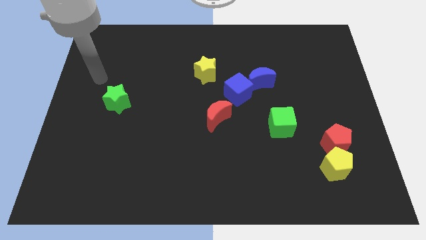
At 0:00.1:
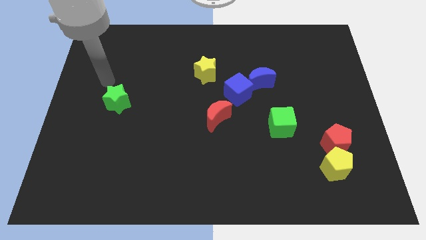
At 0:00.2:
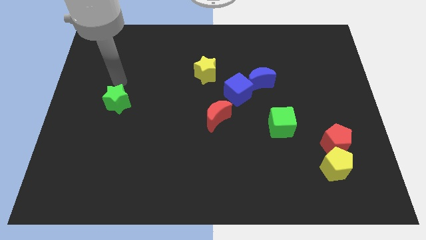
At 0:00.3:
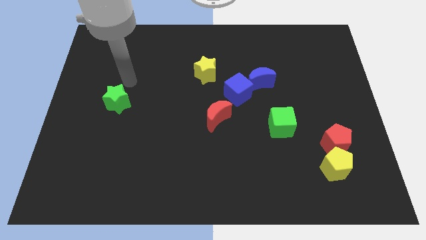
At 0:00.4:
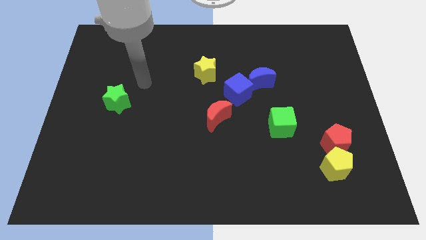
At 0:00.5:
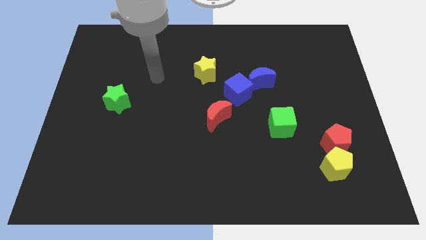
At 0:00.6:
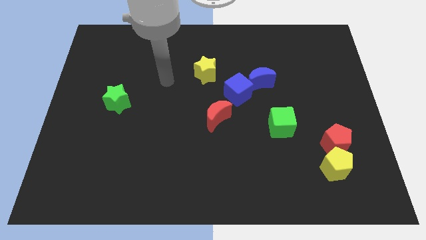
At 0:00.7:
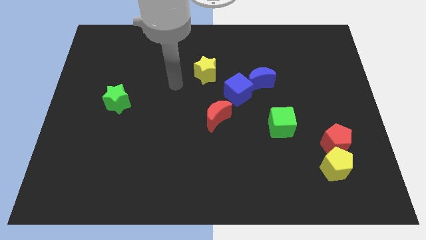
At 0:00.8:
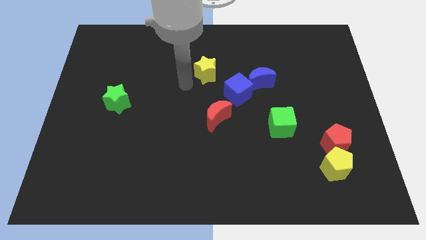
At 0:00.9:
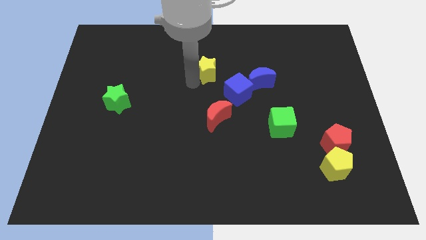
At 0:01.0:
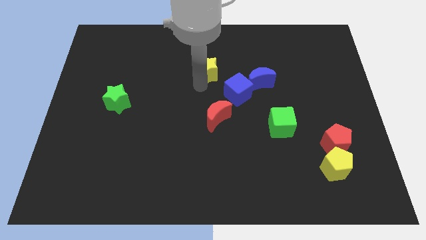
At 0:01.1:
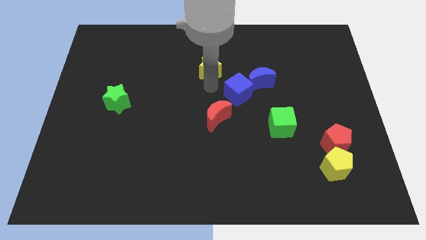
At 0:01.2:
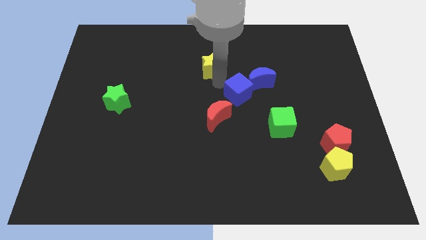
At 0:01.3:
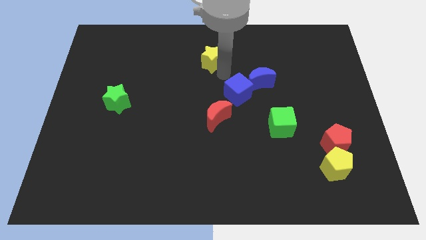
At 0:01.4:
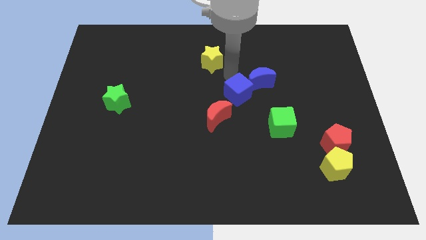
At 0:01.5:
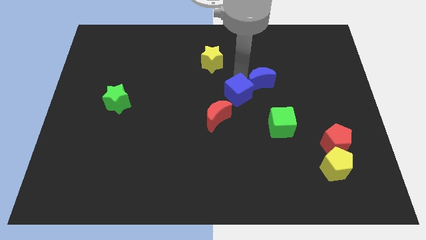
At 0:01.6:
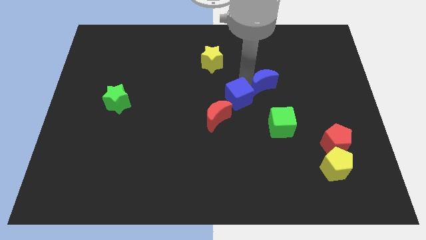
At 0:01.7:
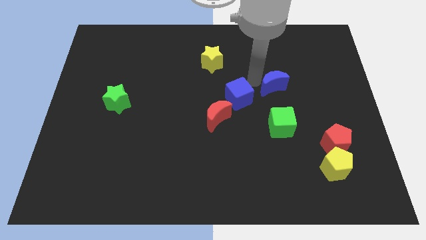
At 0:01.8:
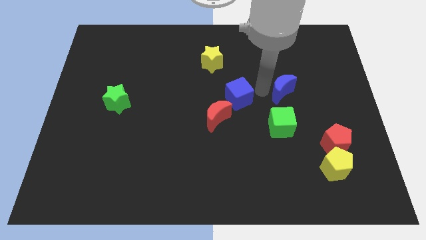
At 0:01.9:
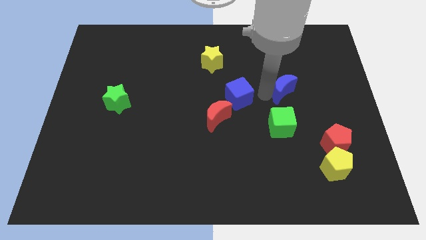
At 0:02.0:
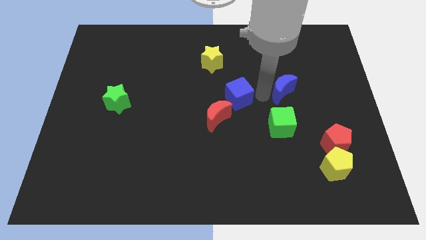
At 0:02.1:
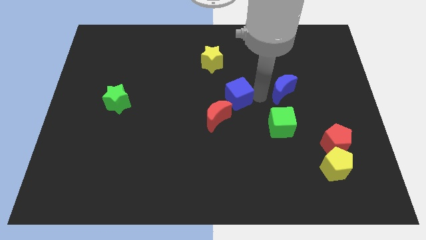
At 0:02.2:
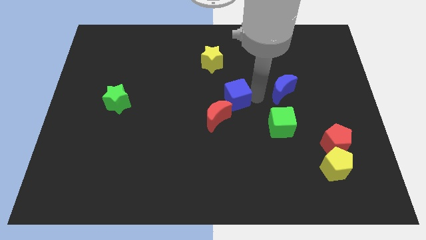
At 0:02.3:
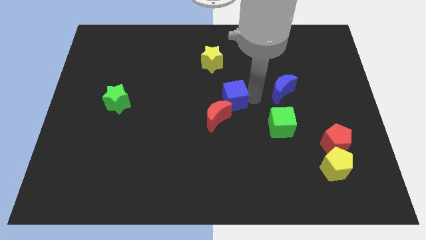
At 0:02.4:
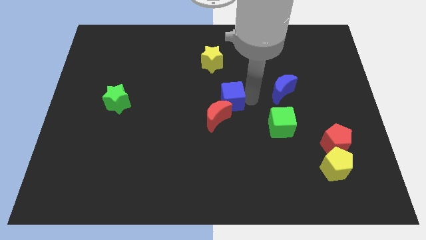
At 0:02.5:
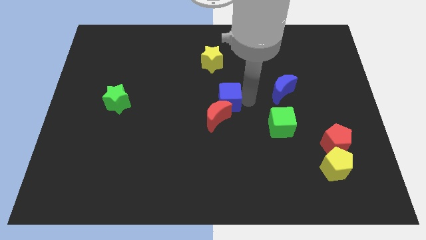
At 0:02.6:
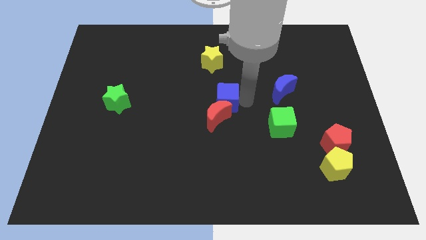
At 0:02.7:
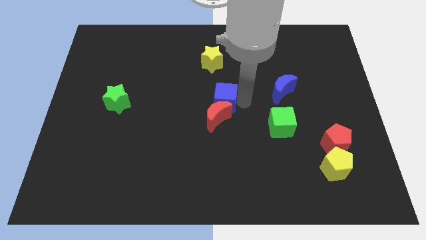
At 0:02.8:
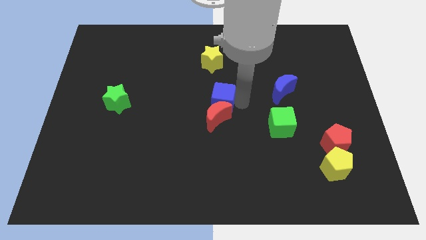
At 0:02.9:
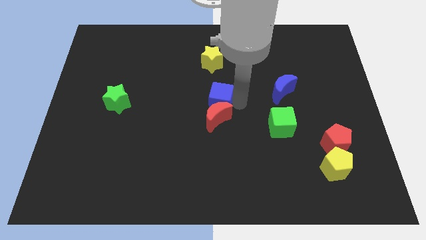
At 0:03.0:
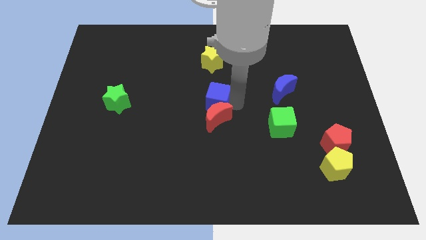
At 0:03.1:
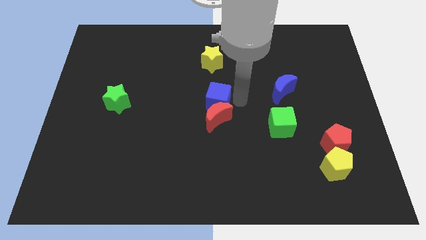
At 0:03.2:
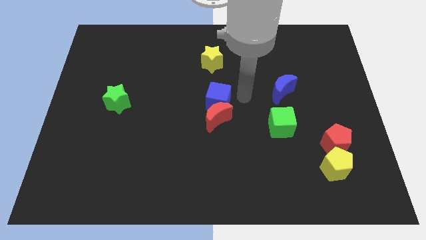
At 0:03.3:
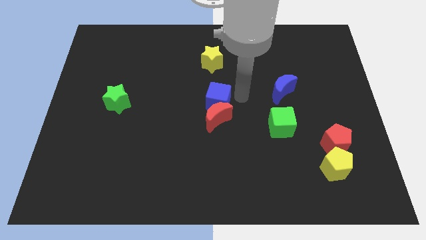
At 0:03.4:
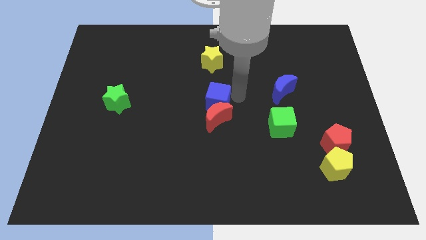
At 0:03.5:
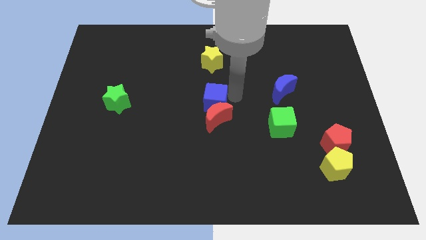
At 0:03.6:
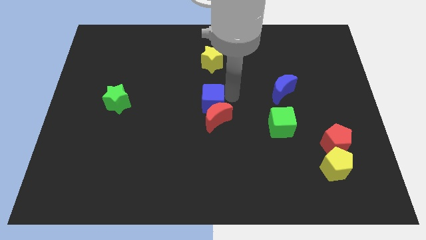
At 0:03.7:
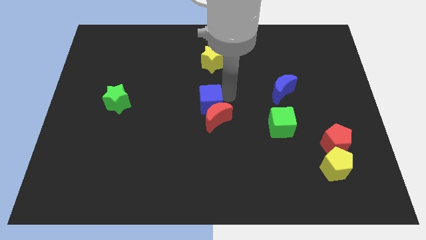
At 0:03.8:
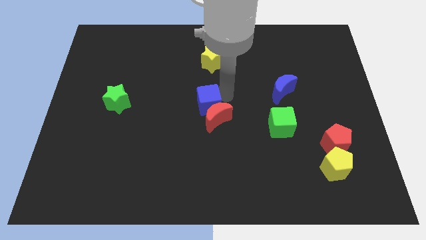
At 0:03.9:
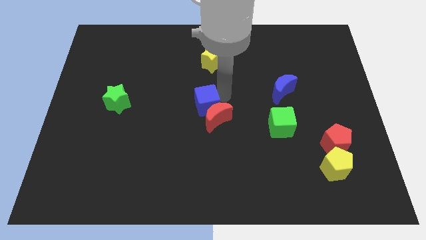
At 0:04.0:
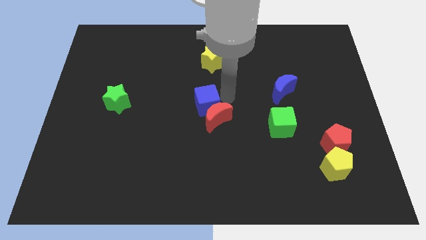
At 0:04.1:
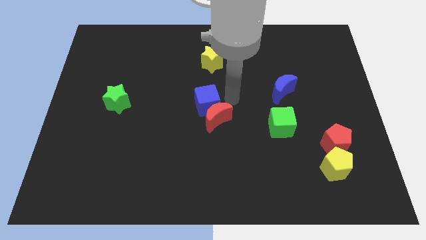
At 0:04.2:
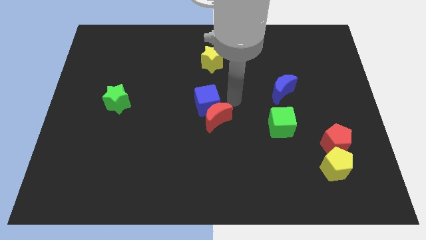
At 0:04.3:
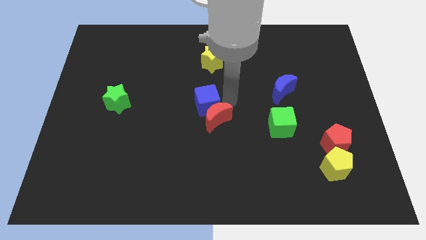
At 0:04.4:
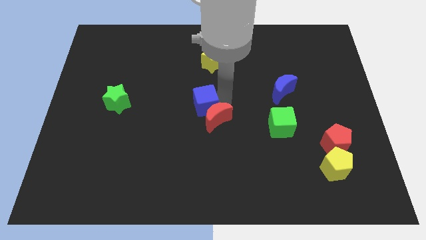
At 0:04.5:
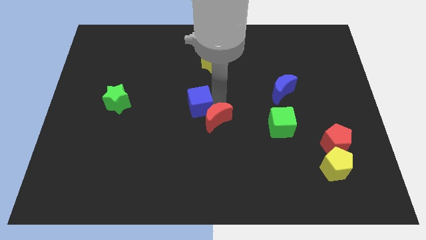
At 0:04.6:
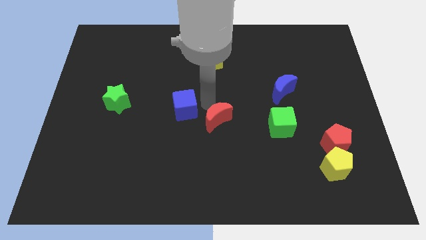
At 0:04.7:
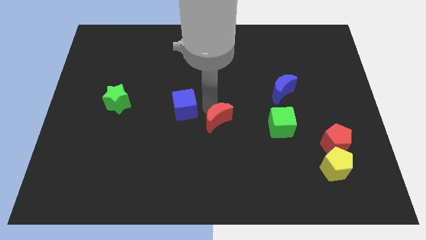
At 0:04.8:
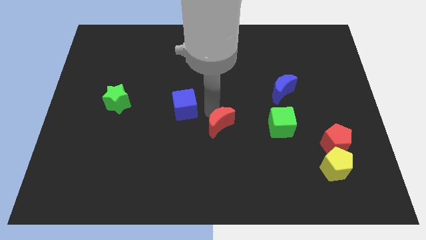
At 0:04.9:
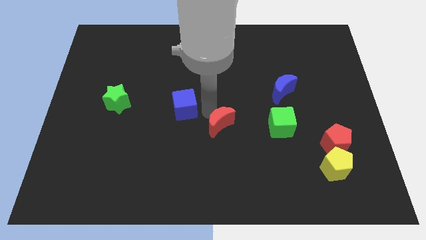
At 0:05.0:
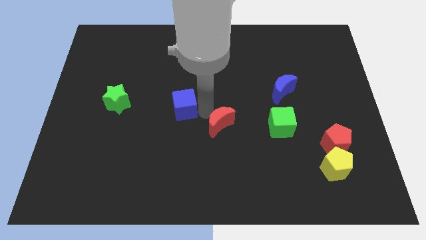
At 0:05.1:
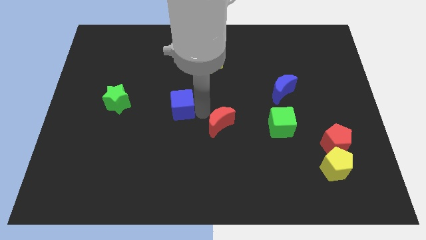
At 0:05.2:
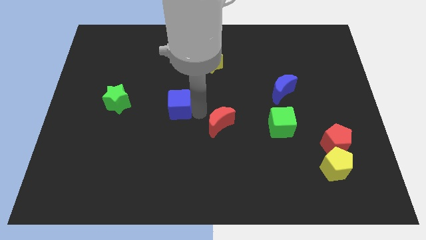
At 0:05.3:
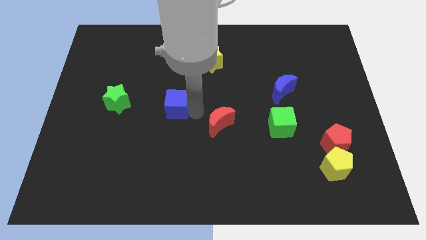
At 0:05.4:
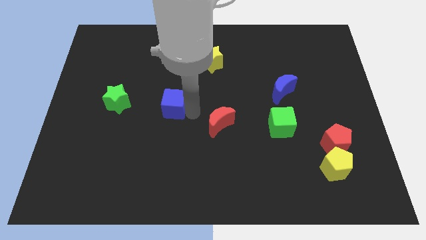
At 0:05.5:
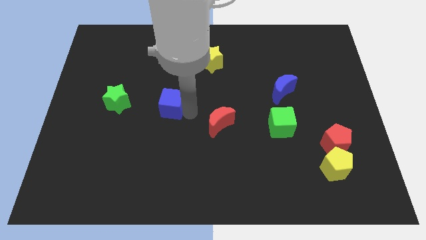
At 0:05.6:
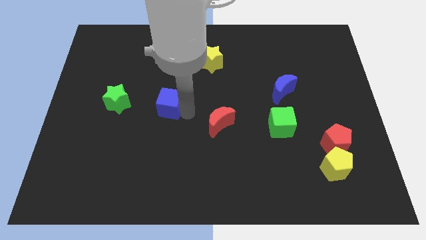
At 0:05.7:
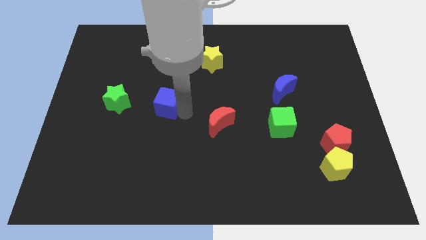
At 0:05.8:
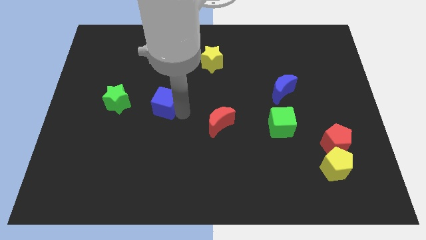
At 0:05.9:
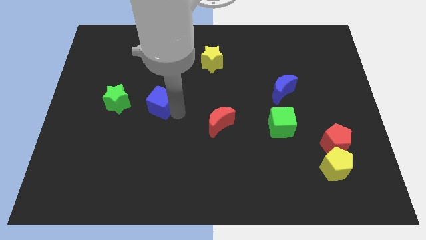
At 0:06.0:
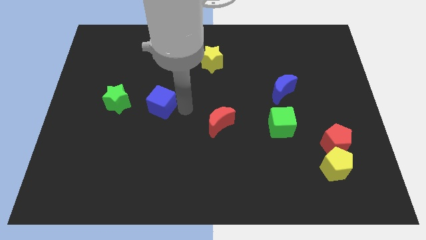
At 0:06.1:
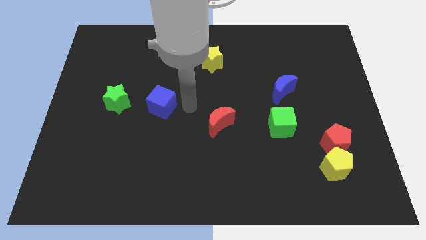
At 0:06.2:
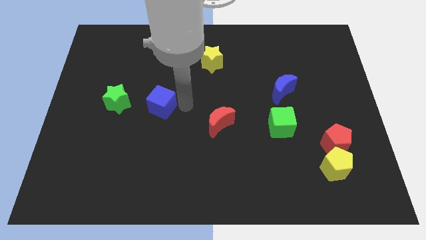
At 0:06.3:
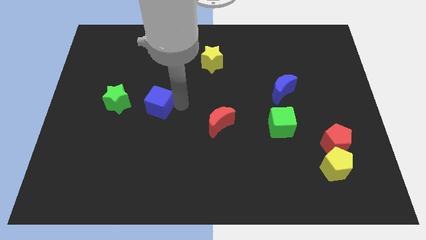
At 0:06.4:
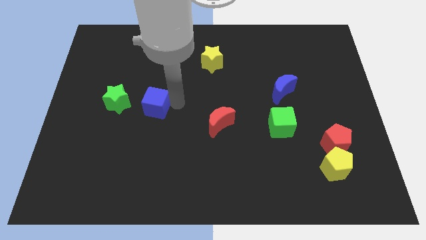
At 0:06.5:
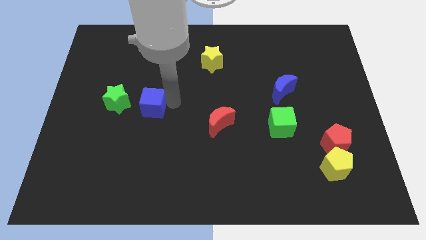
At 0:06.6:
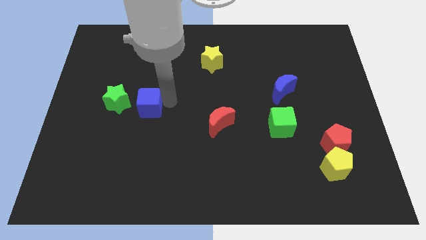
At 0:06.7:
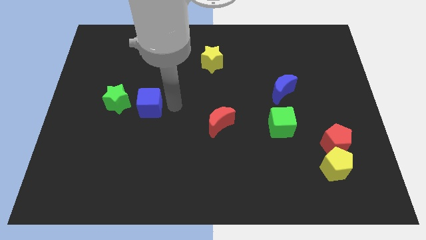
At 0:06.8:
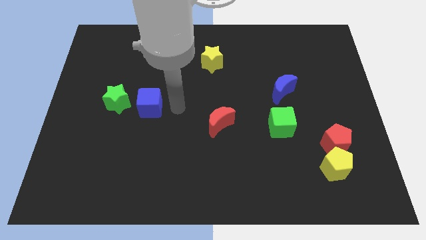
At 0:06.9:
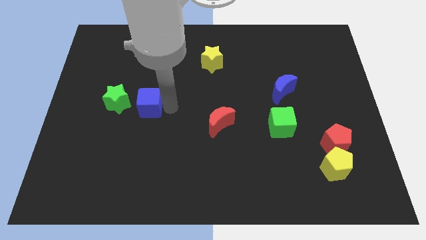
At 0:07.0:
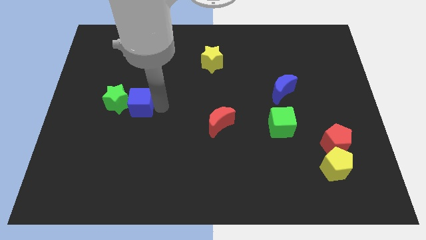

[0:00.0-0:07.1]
push the blue cube towards the green star

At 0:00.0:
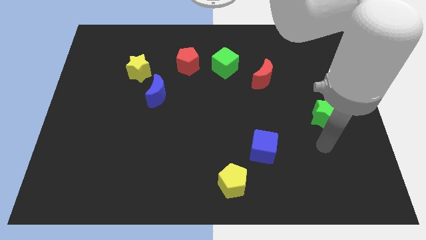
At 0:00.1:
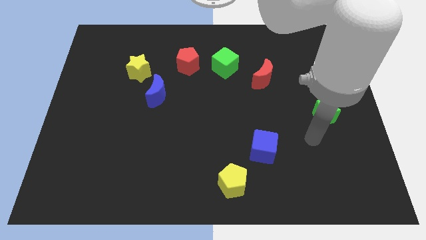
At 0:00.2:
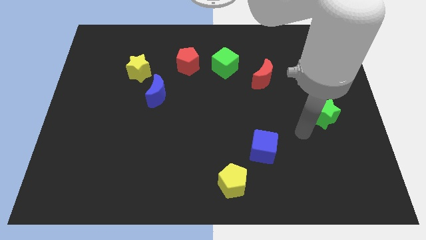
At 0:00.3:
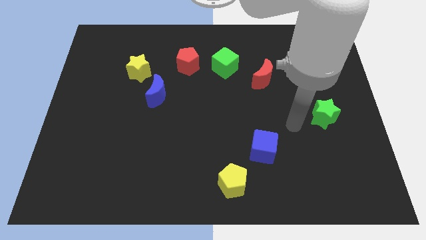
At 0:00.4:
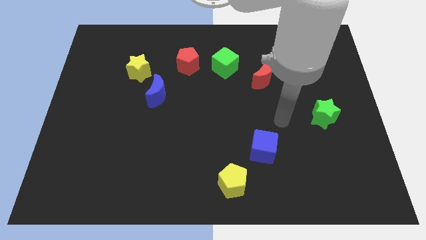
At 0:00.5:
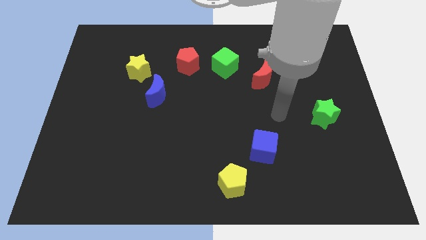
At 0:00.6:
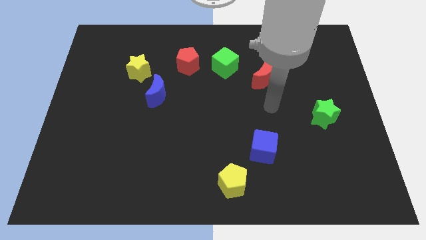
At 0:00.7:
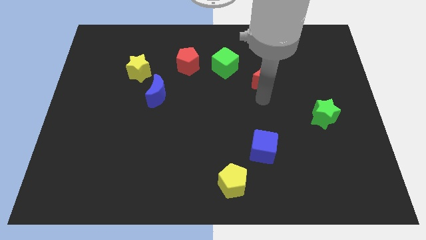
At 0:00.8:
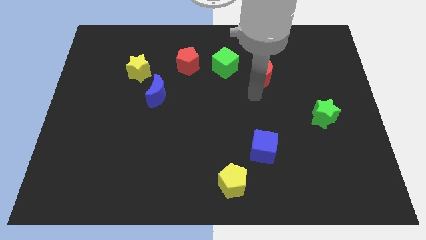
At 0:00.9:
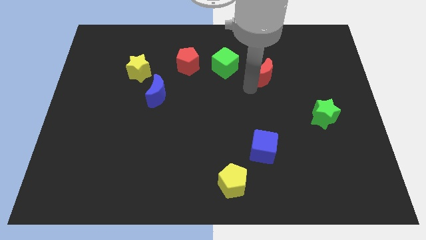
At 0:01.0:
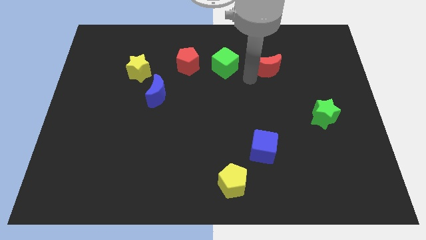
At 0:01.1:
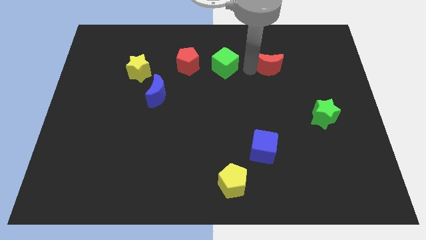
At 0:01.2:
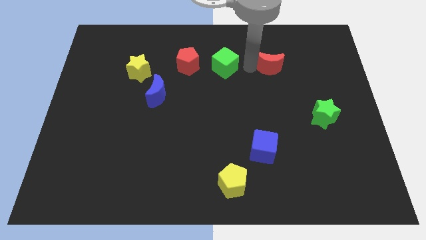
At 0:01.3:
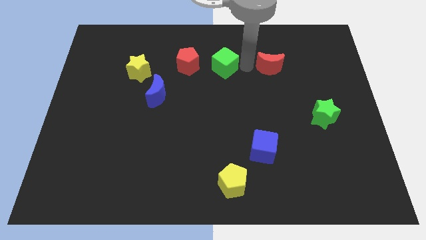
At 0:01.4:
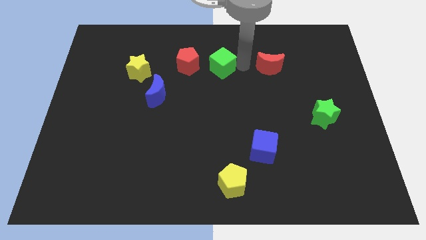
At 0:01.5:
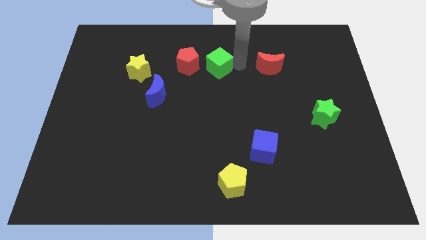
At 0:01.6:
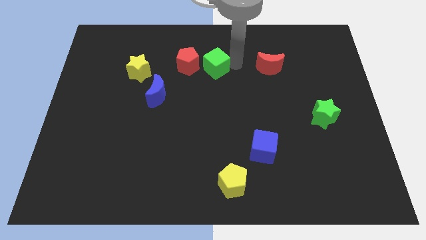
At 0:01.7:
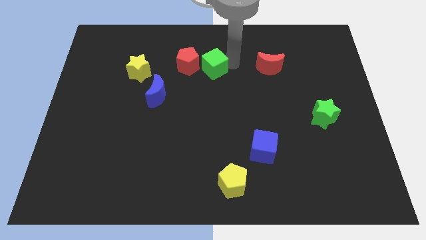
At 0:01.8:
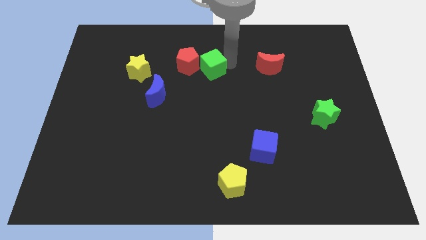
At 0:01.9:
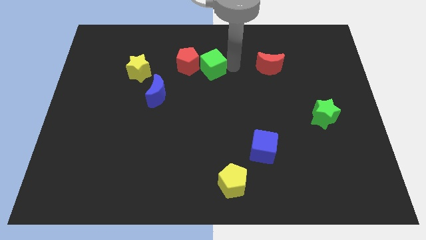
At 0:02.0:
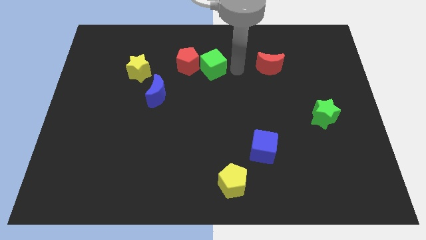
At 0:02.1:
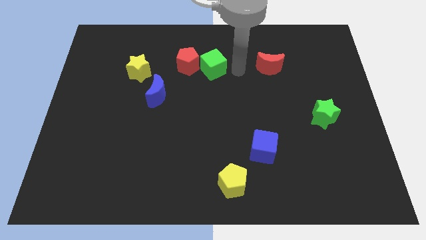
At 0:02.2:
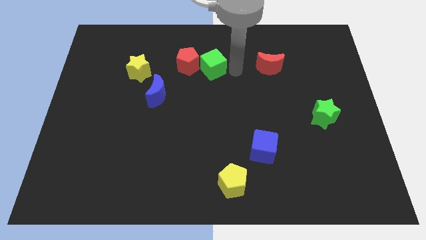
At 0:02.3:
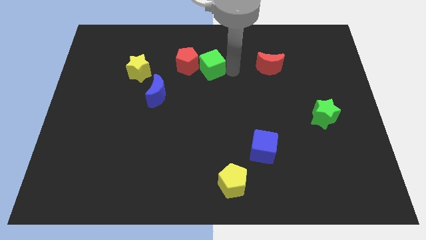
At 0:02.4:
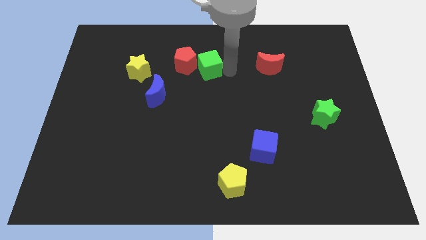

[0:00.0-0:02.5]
slide the green cube next to the red pentagon
